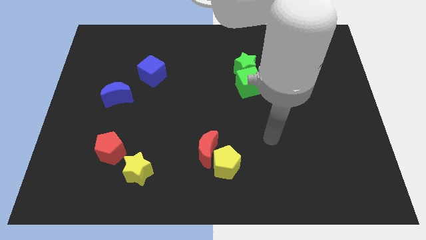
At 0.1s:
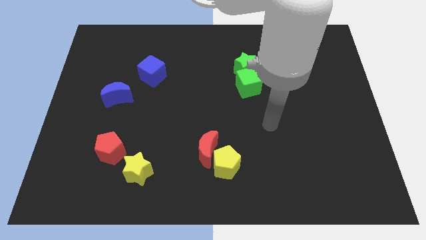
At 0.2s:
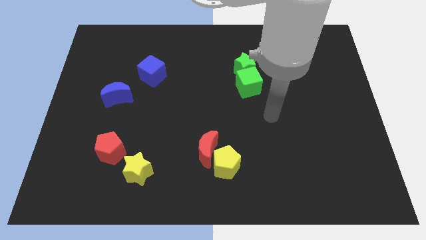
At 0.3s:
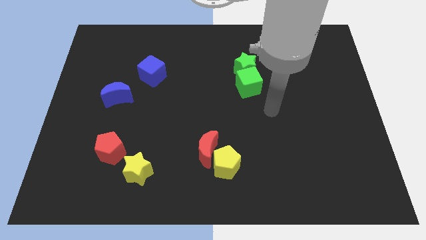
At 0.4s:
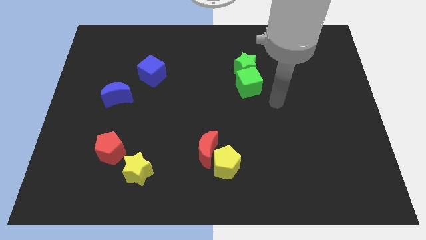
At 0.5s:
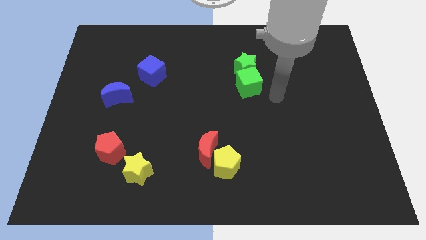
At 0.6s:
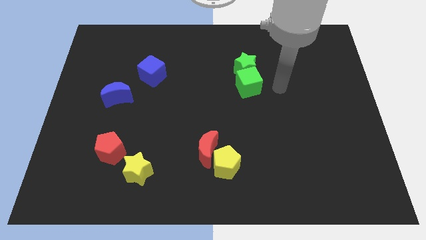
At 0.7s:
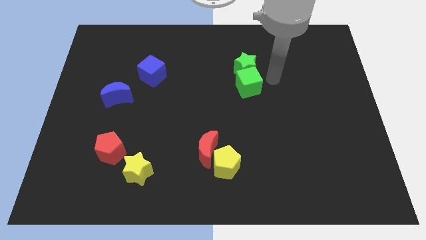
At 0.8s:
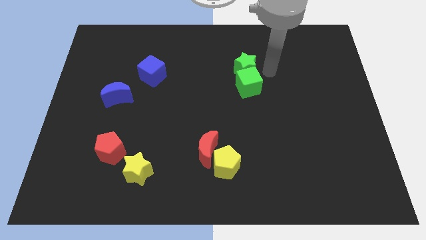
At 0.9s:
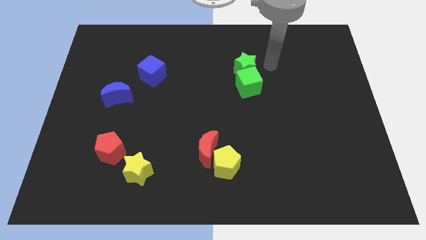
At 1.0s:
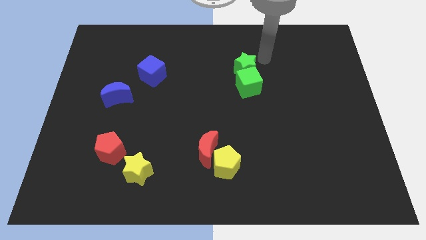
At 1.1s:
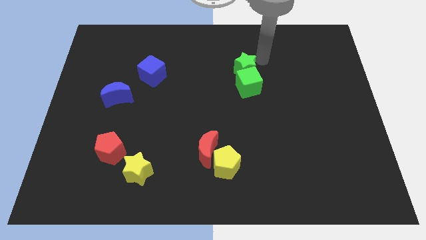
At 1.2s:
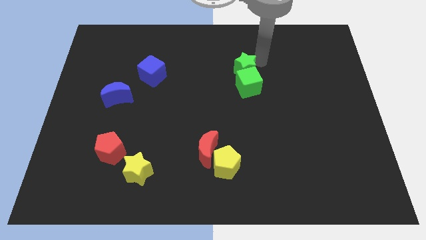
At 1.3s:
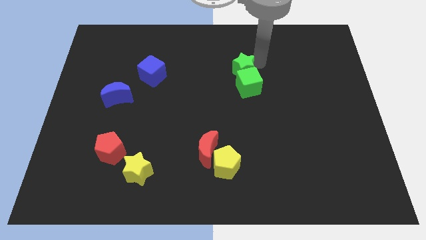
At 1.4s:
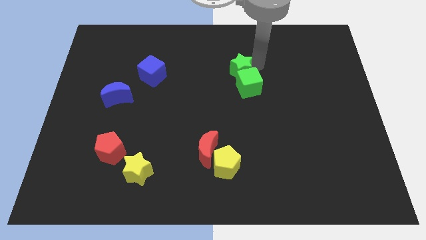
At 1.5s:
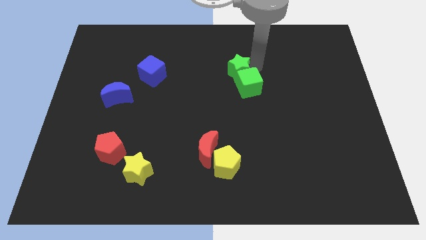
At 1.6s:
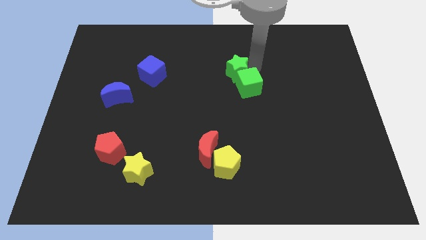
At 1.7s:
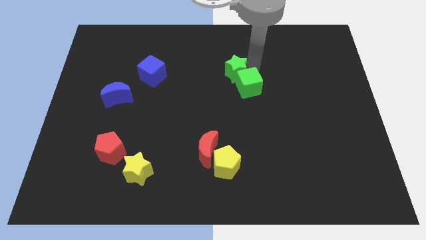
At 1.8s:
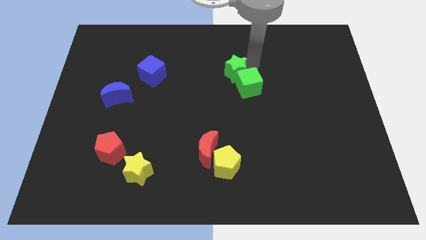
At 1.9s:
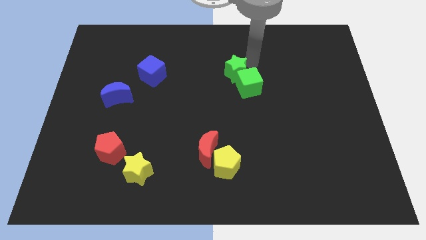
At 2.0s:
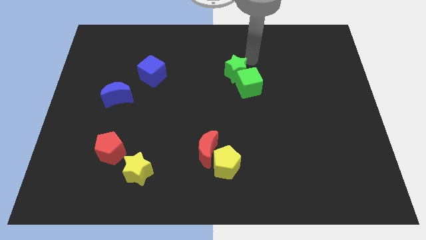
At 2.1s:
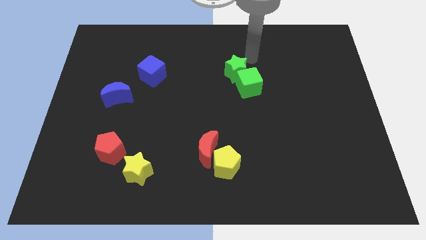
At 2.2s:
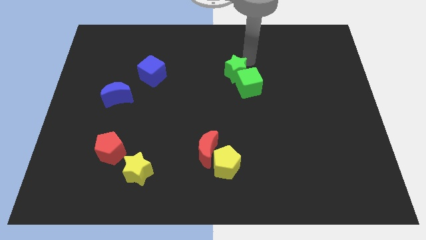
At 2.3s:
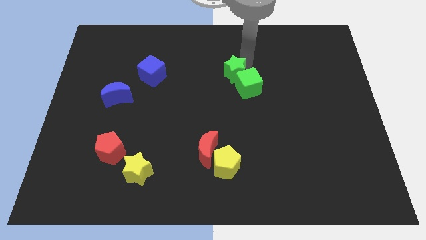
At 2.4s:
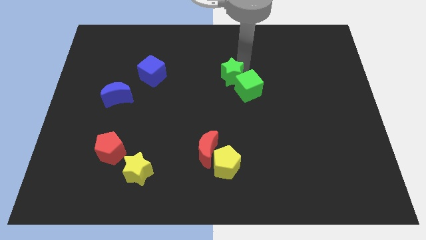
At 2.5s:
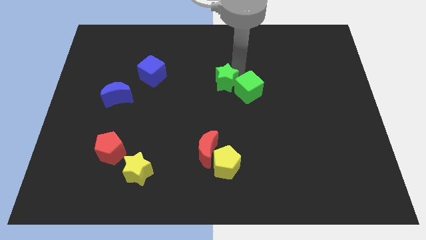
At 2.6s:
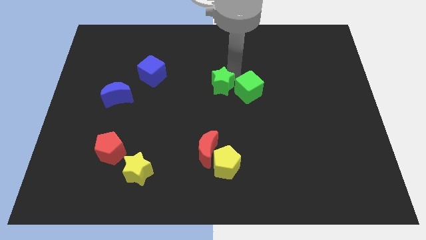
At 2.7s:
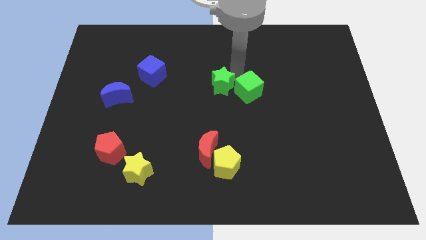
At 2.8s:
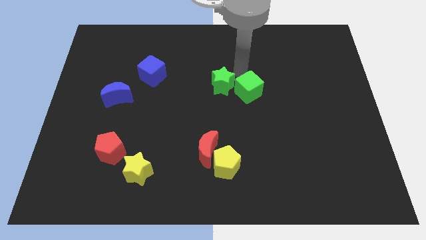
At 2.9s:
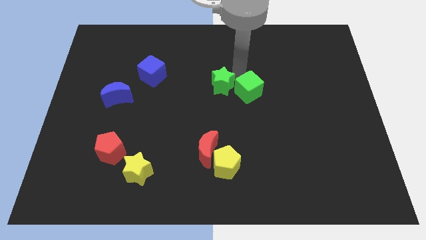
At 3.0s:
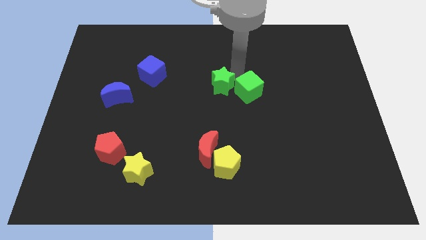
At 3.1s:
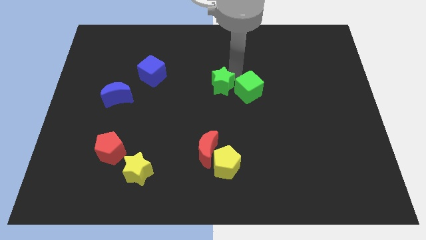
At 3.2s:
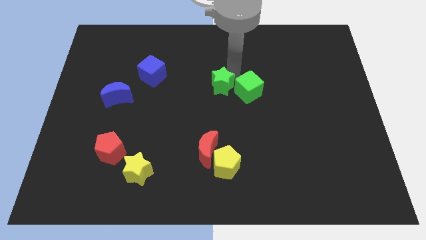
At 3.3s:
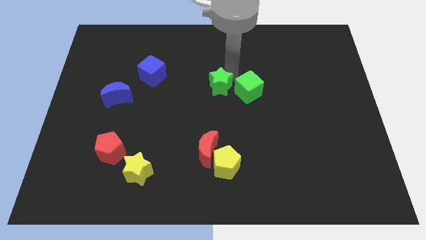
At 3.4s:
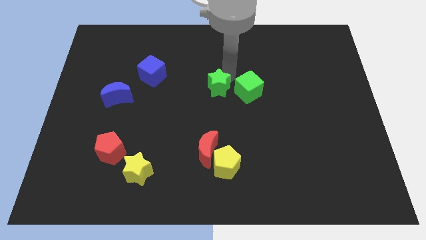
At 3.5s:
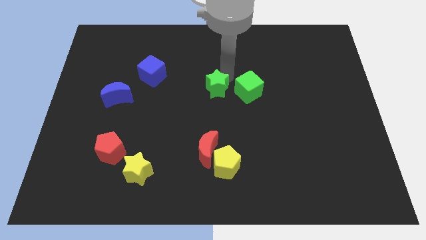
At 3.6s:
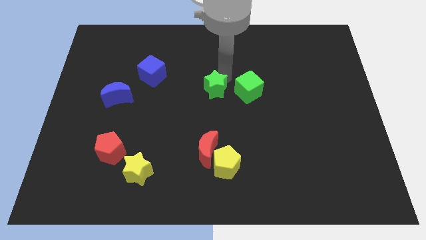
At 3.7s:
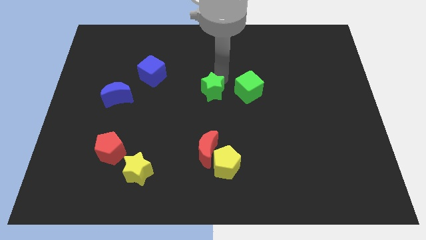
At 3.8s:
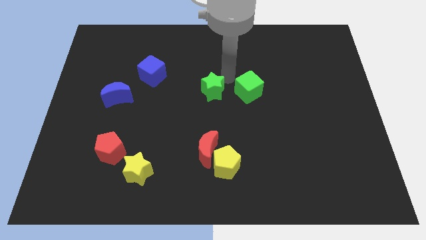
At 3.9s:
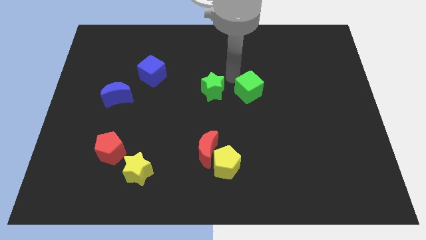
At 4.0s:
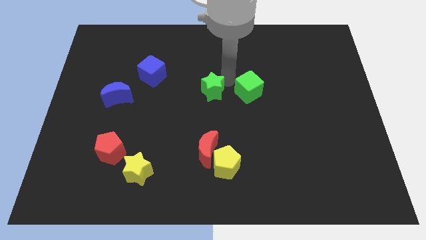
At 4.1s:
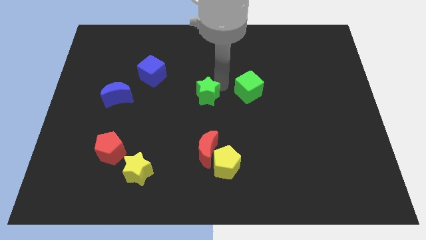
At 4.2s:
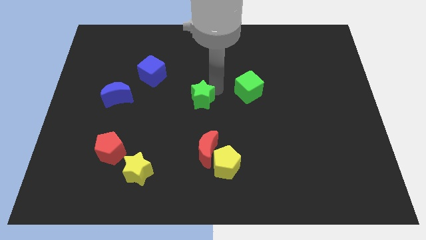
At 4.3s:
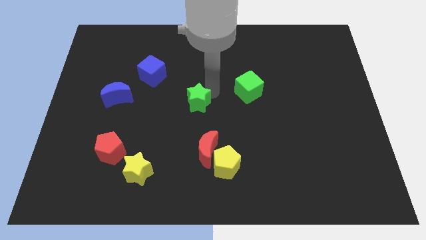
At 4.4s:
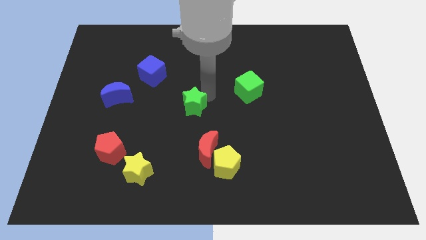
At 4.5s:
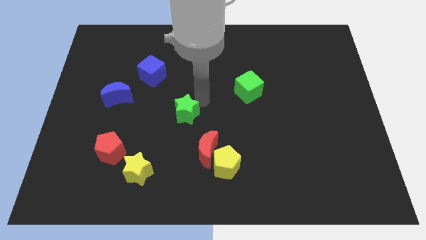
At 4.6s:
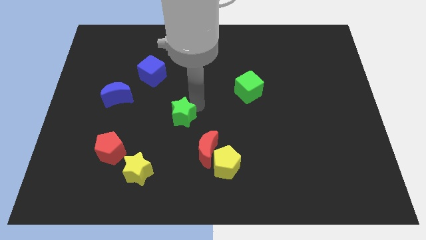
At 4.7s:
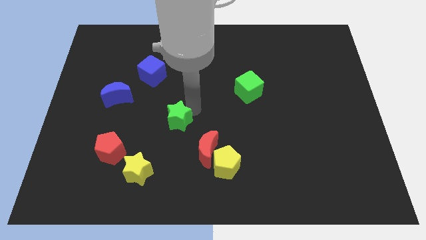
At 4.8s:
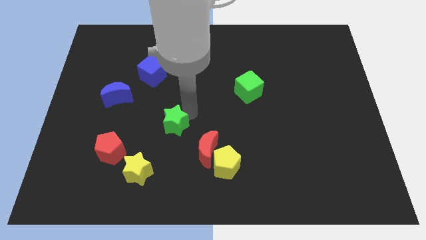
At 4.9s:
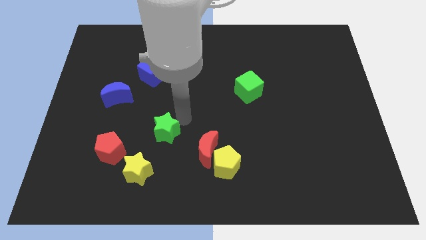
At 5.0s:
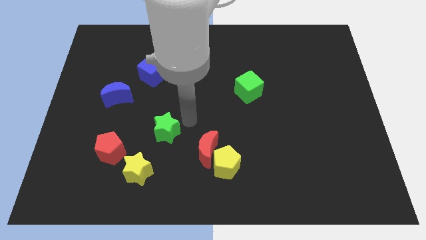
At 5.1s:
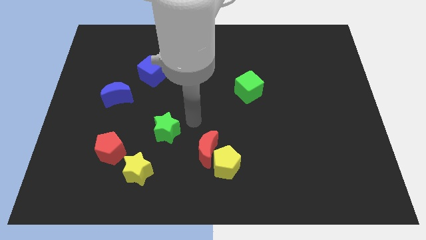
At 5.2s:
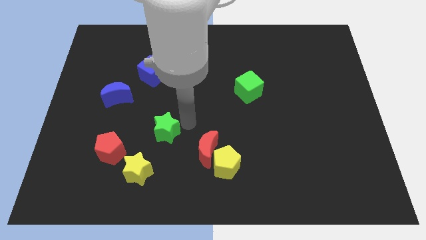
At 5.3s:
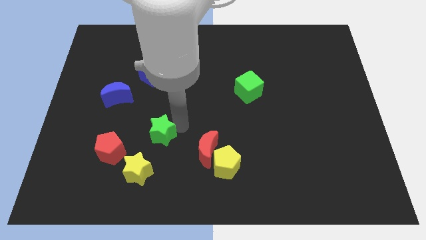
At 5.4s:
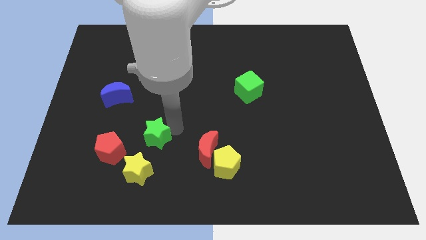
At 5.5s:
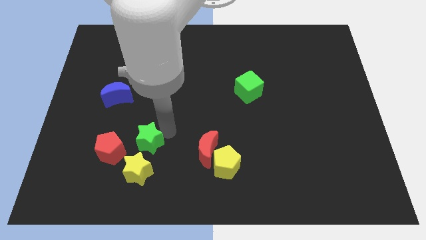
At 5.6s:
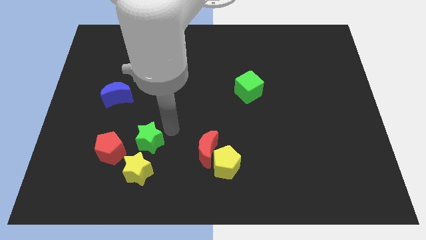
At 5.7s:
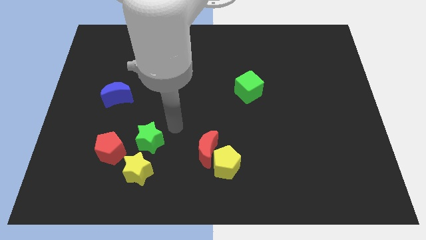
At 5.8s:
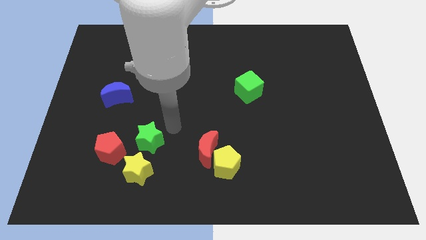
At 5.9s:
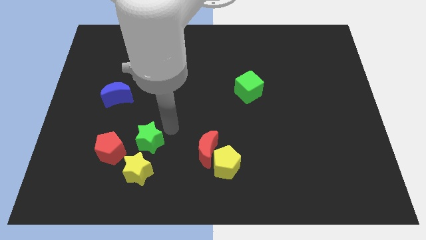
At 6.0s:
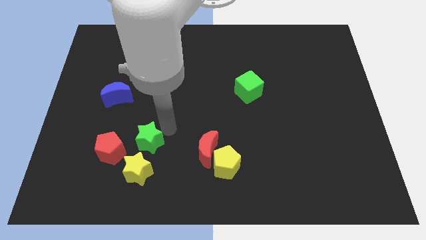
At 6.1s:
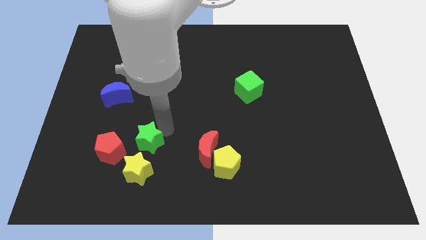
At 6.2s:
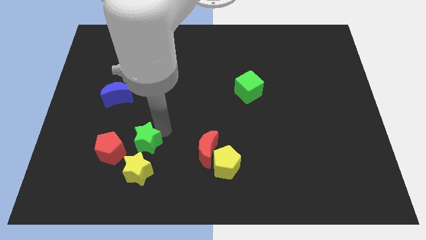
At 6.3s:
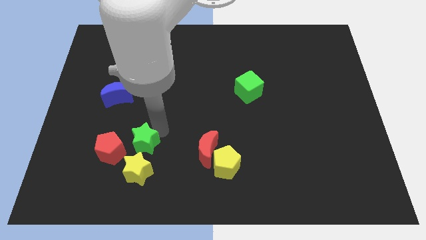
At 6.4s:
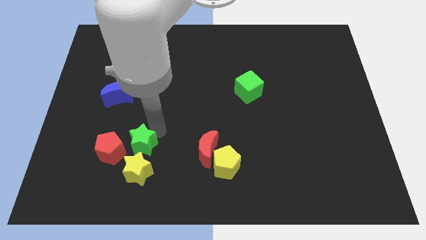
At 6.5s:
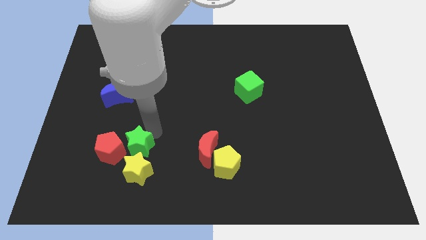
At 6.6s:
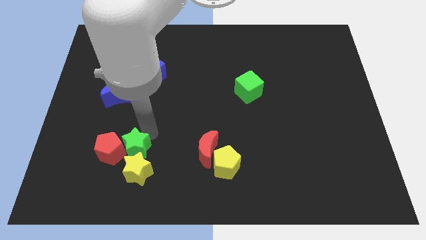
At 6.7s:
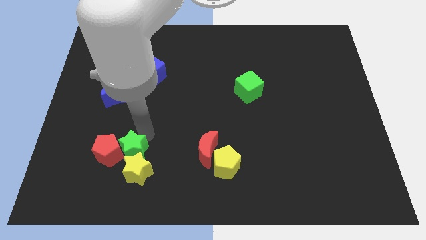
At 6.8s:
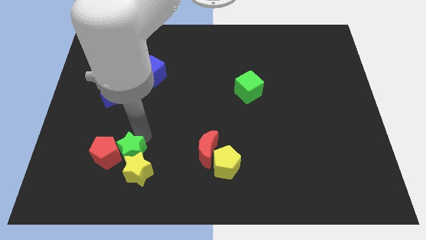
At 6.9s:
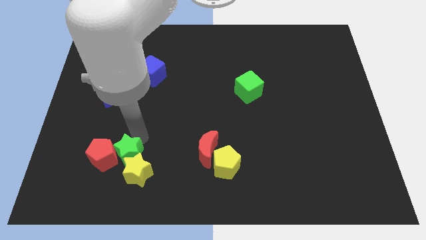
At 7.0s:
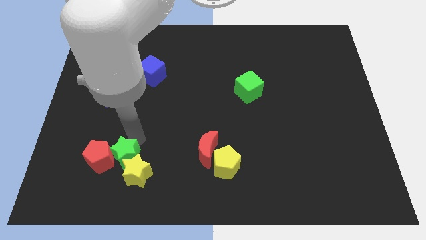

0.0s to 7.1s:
put the green star left of the yellow star
